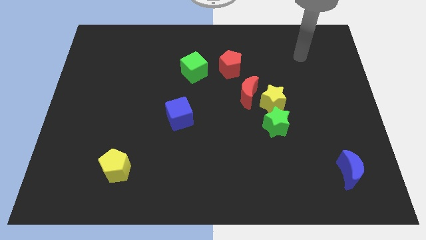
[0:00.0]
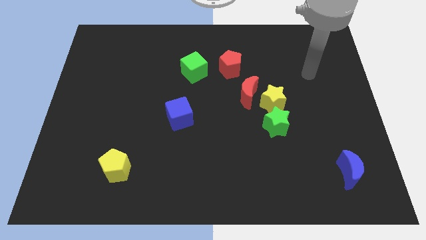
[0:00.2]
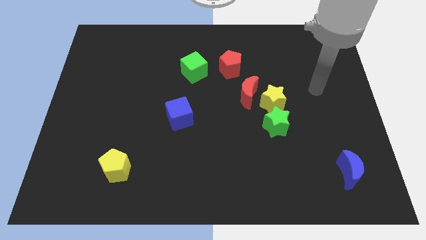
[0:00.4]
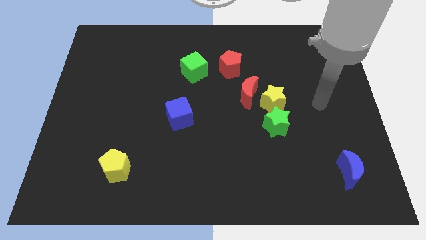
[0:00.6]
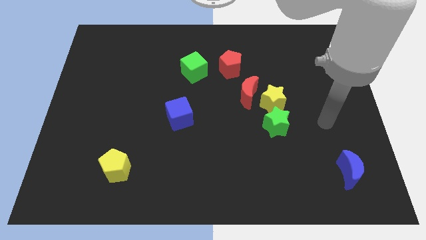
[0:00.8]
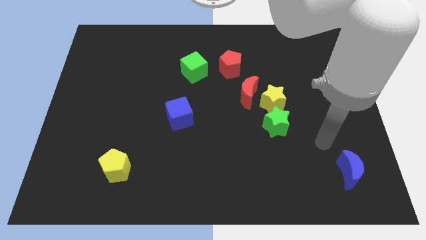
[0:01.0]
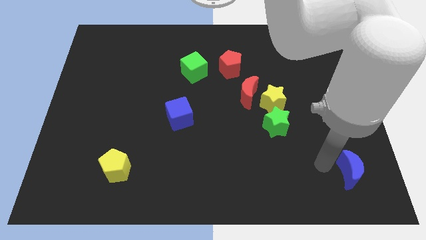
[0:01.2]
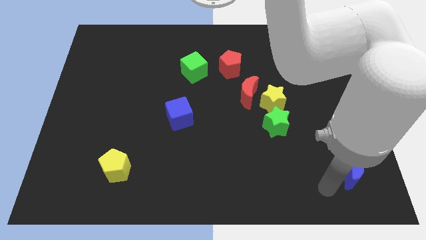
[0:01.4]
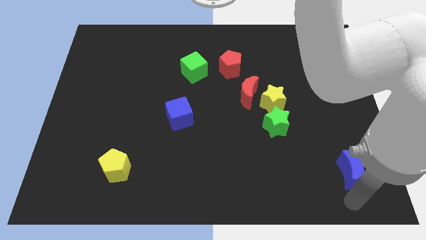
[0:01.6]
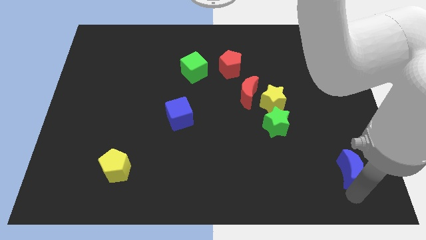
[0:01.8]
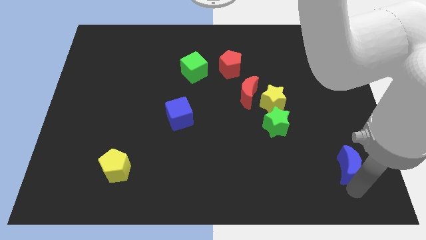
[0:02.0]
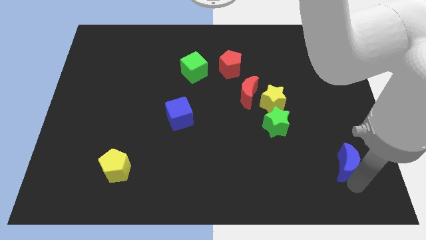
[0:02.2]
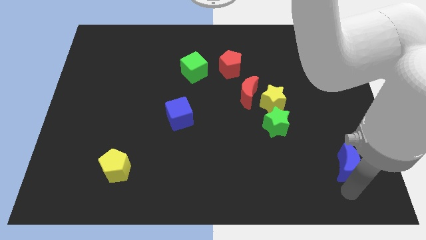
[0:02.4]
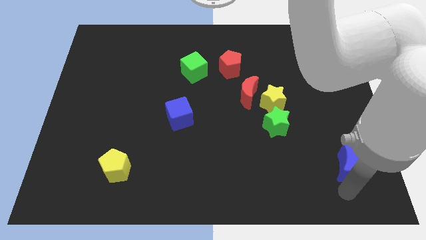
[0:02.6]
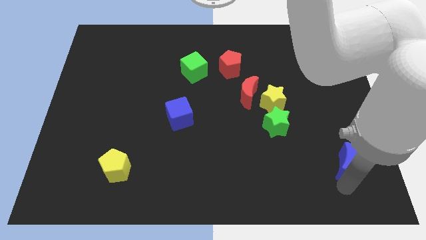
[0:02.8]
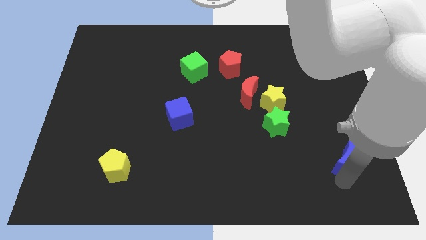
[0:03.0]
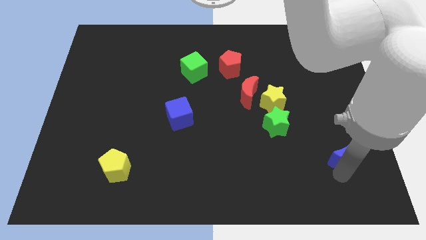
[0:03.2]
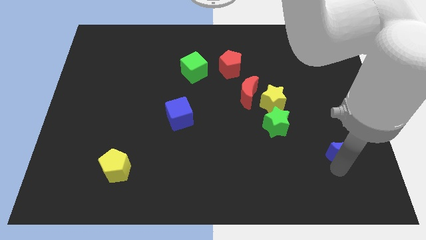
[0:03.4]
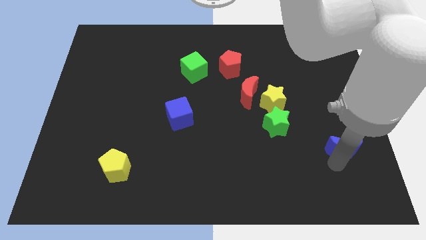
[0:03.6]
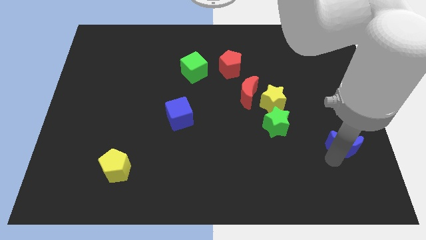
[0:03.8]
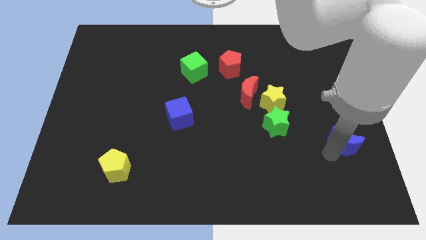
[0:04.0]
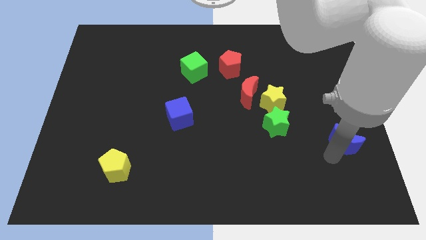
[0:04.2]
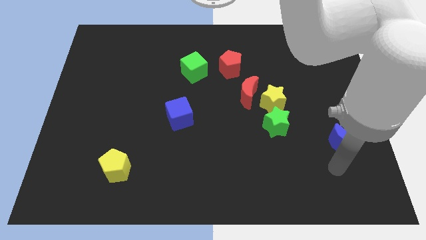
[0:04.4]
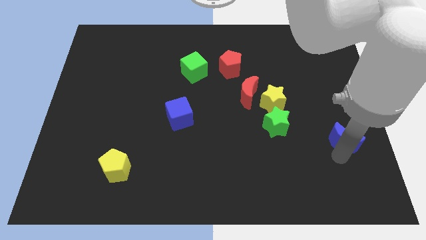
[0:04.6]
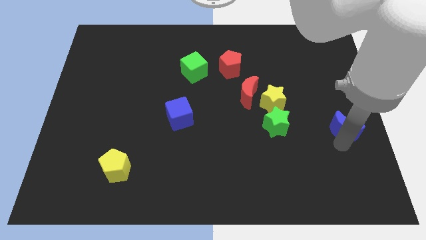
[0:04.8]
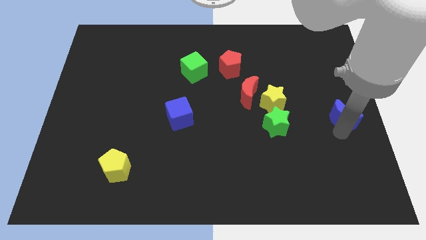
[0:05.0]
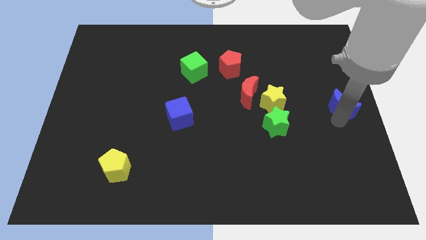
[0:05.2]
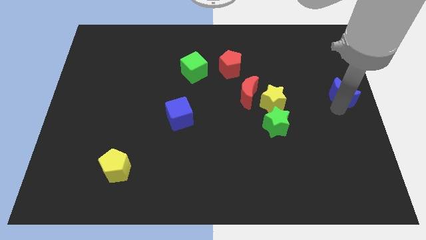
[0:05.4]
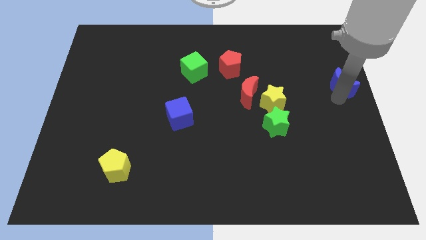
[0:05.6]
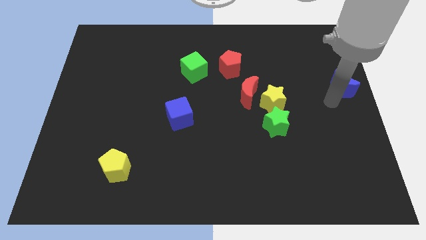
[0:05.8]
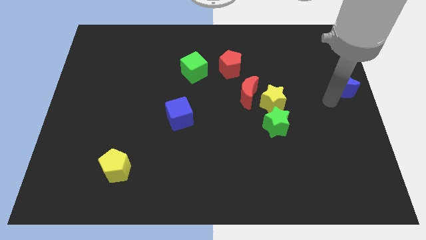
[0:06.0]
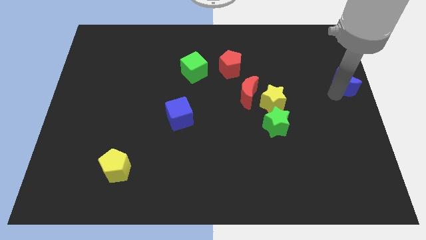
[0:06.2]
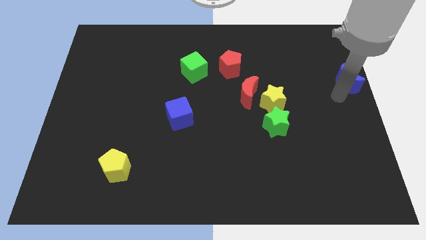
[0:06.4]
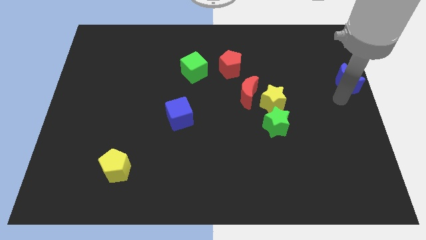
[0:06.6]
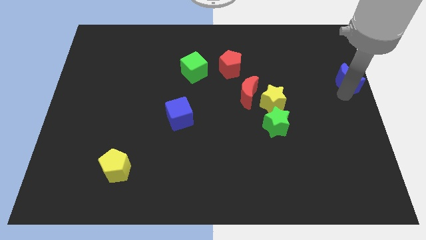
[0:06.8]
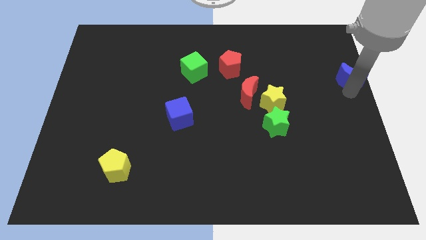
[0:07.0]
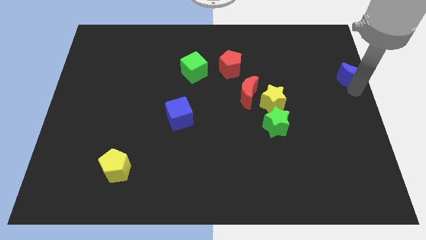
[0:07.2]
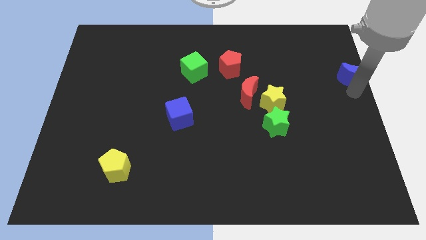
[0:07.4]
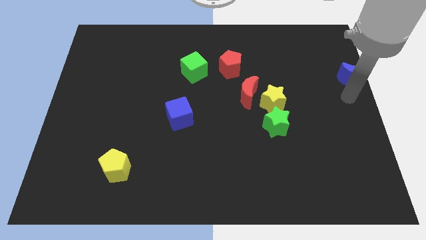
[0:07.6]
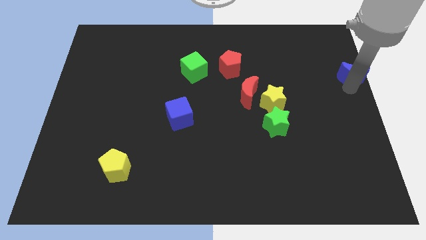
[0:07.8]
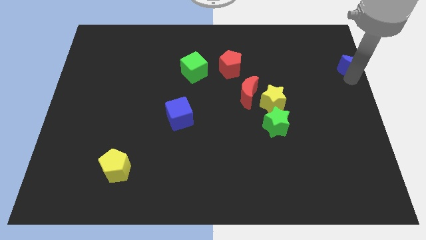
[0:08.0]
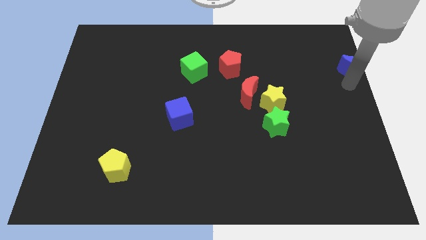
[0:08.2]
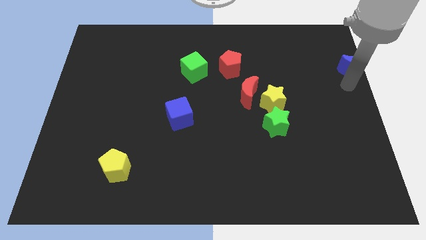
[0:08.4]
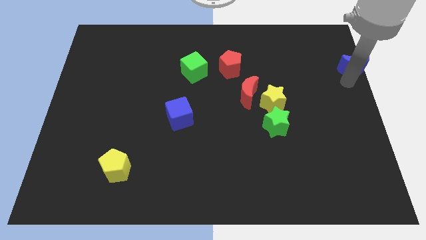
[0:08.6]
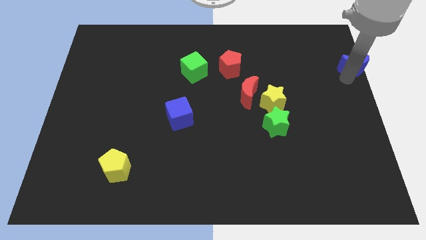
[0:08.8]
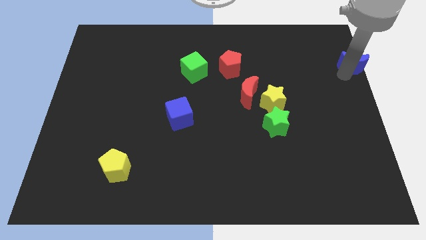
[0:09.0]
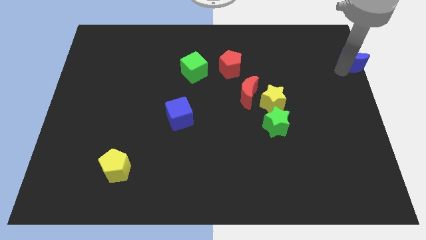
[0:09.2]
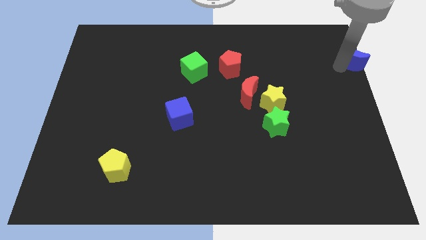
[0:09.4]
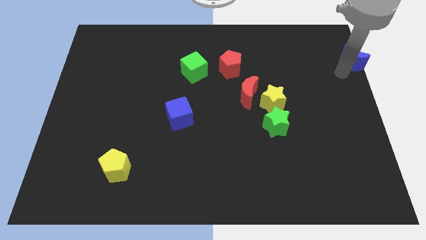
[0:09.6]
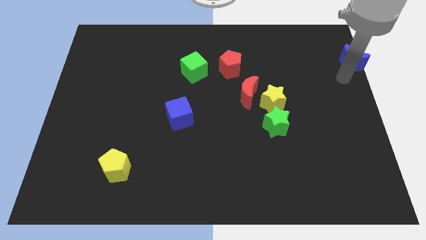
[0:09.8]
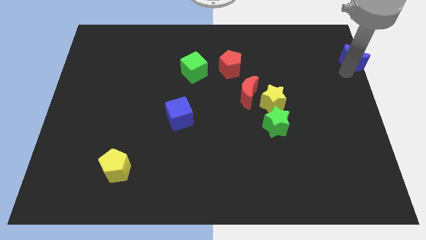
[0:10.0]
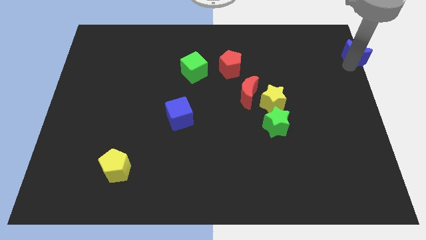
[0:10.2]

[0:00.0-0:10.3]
push the blue moon to the top right corner

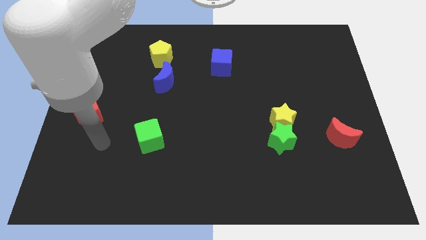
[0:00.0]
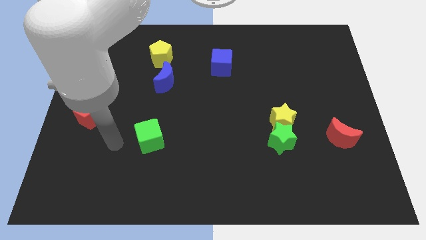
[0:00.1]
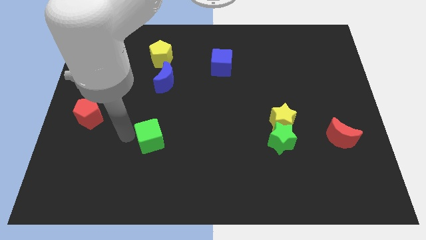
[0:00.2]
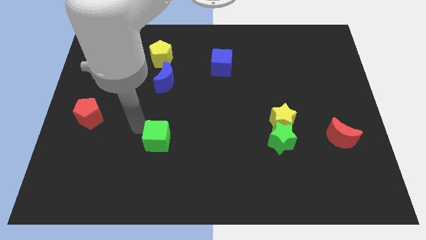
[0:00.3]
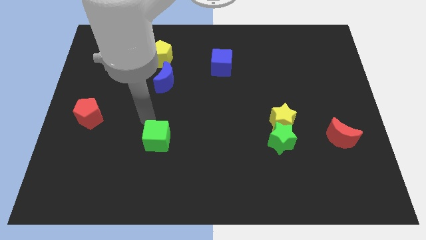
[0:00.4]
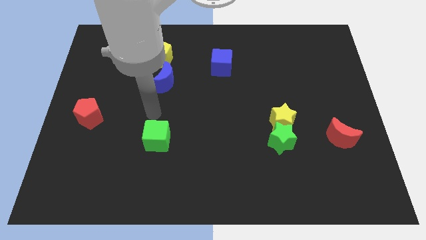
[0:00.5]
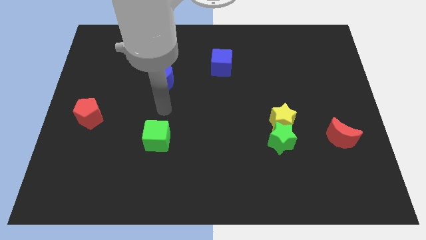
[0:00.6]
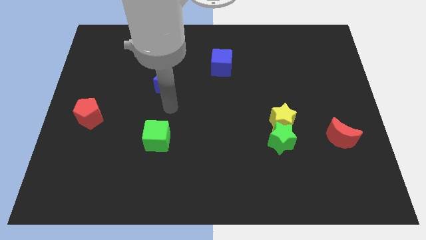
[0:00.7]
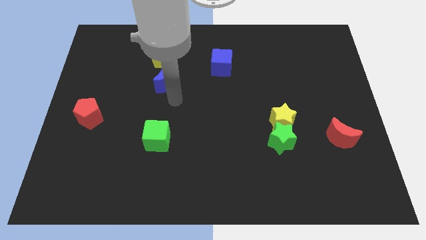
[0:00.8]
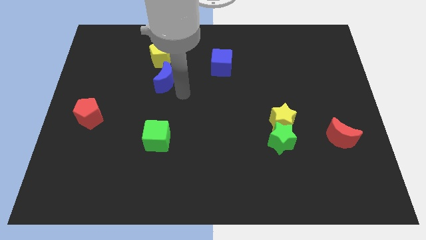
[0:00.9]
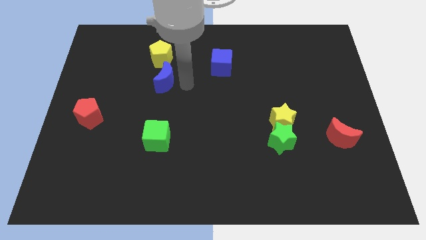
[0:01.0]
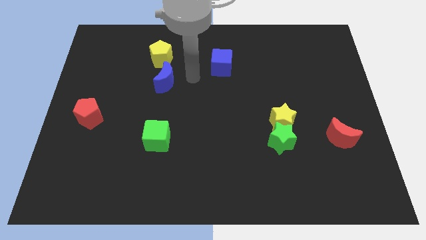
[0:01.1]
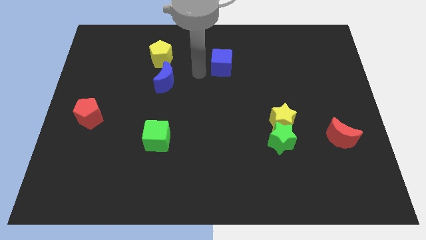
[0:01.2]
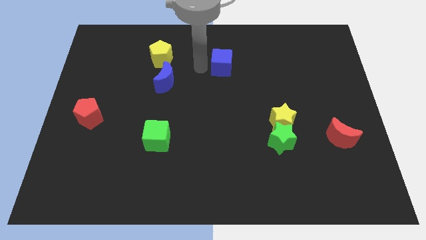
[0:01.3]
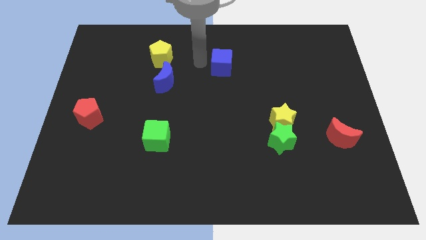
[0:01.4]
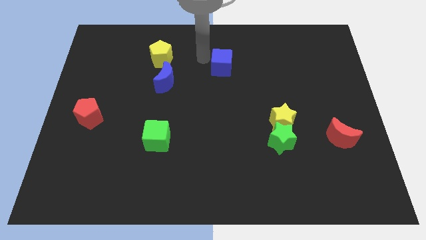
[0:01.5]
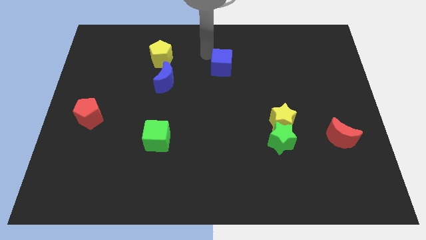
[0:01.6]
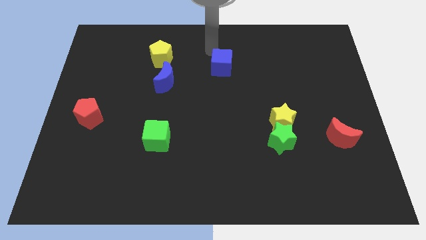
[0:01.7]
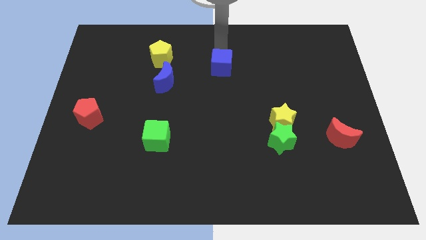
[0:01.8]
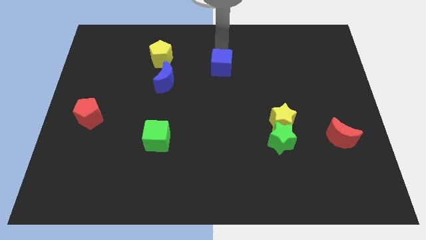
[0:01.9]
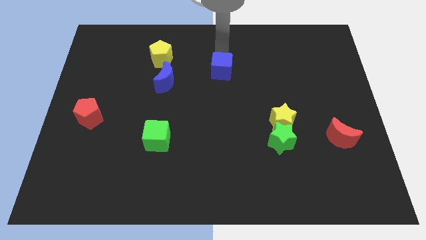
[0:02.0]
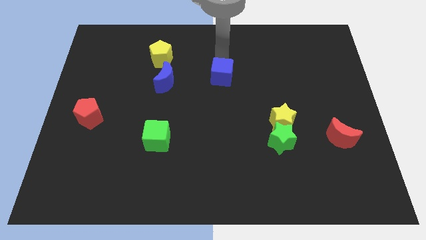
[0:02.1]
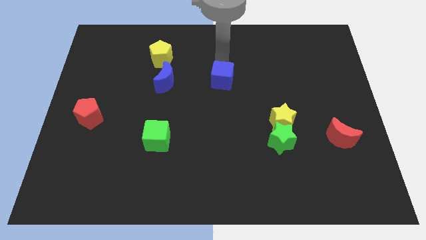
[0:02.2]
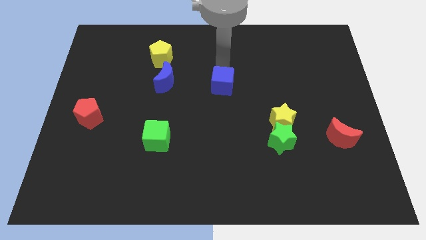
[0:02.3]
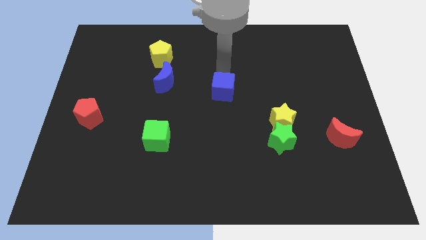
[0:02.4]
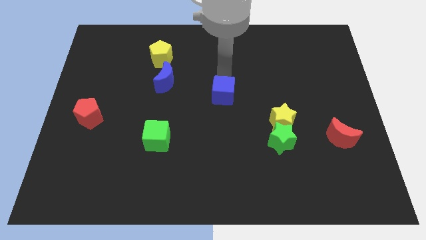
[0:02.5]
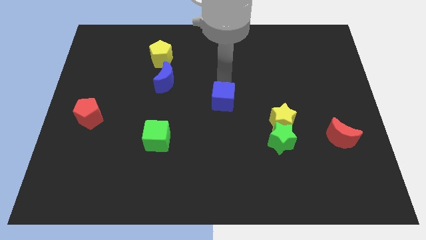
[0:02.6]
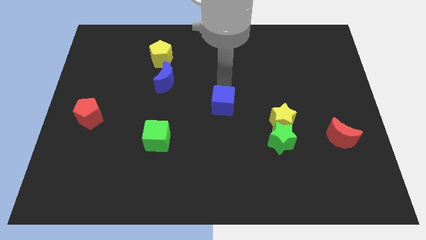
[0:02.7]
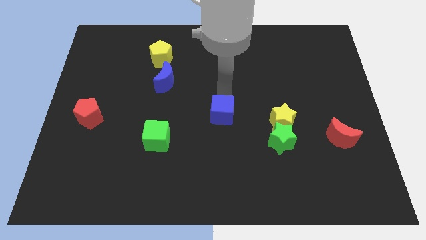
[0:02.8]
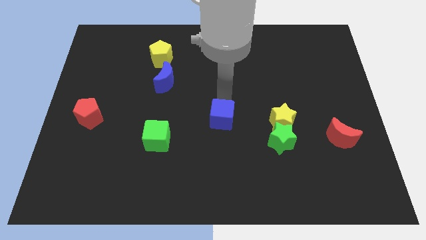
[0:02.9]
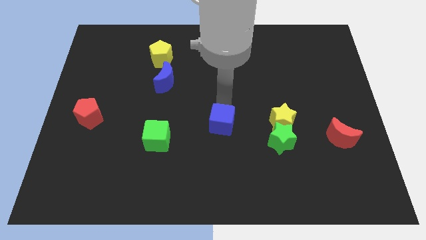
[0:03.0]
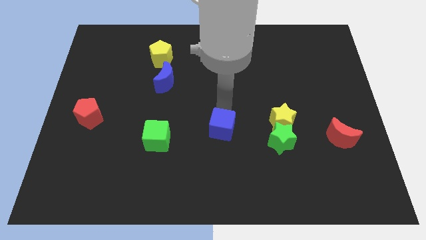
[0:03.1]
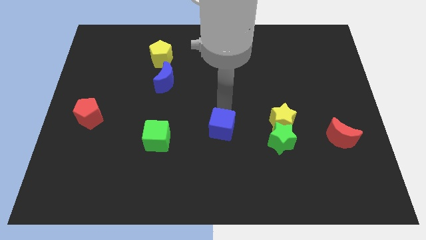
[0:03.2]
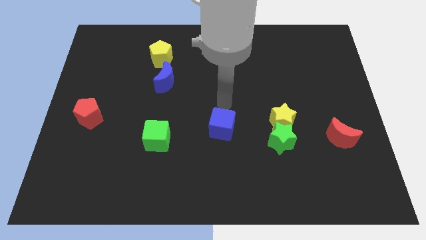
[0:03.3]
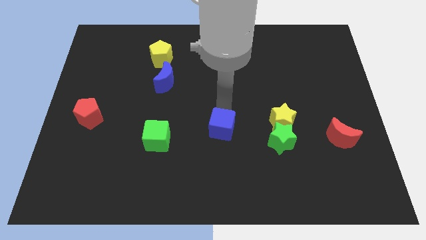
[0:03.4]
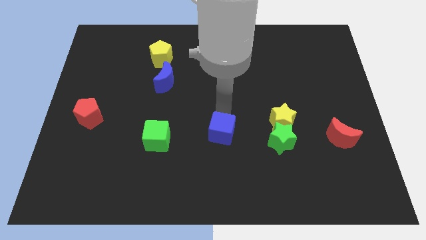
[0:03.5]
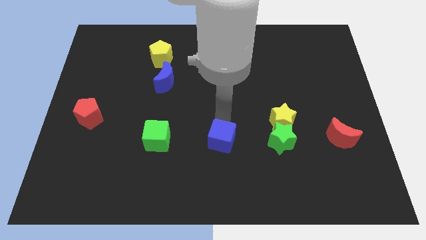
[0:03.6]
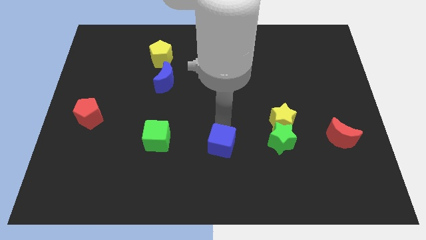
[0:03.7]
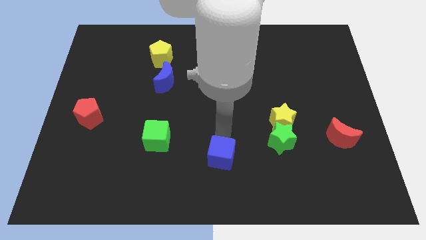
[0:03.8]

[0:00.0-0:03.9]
slide the blue cube to the bottom
